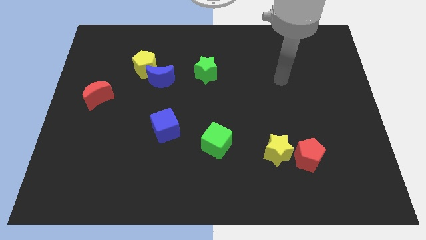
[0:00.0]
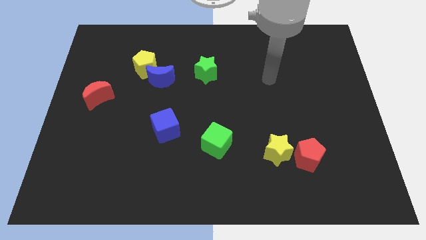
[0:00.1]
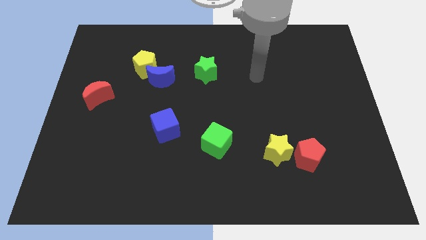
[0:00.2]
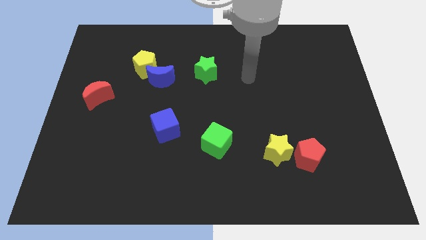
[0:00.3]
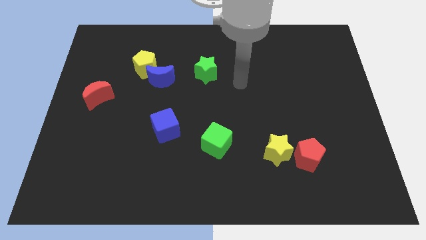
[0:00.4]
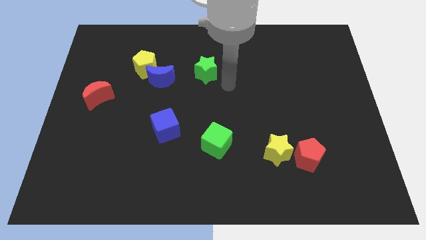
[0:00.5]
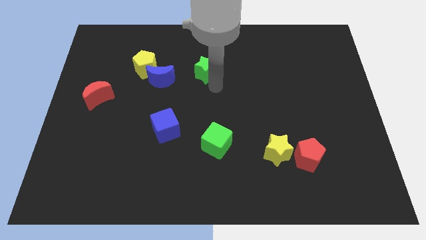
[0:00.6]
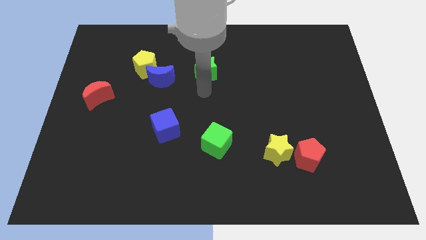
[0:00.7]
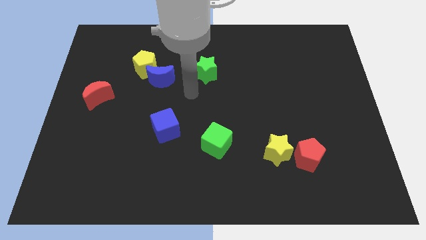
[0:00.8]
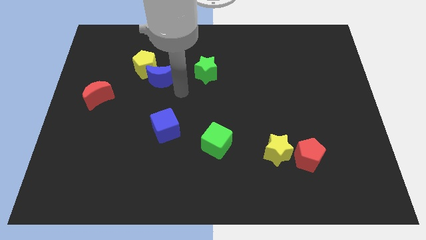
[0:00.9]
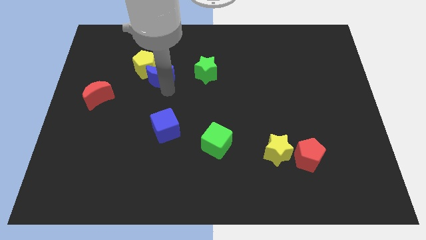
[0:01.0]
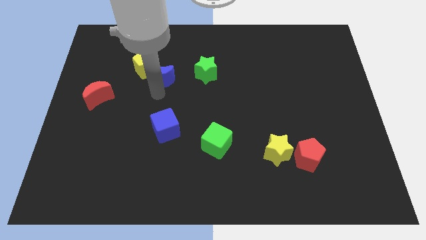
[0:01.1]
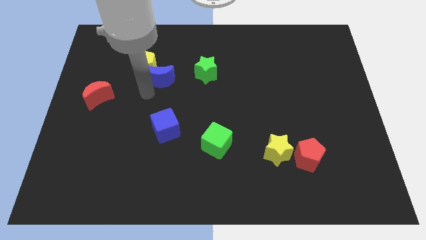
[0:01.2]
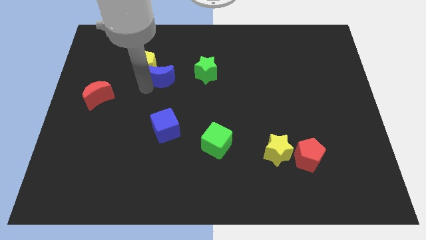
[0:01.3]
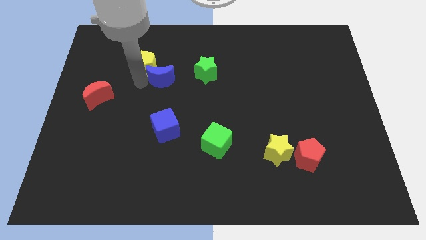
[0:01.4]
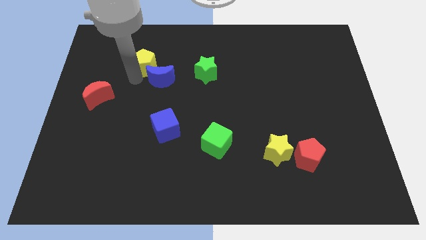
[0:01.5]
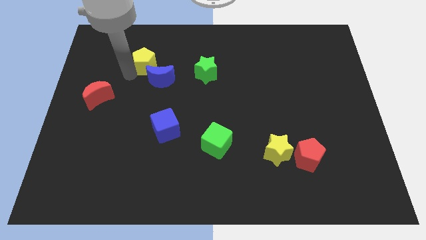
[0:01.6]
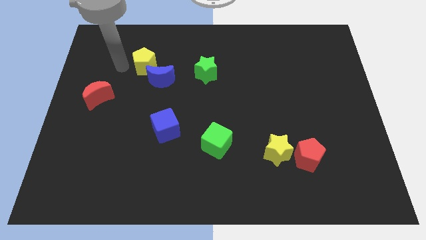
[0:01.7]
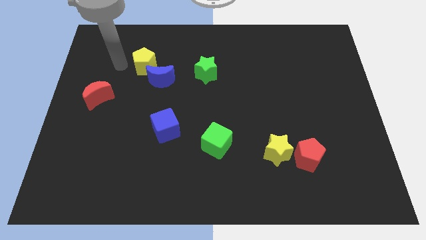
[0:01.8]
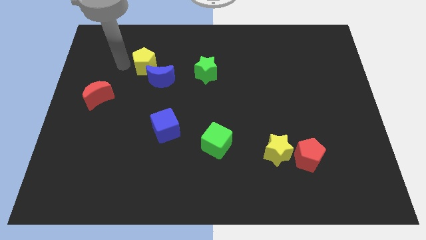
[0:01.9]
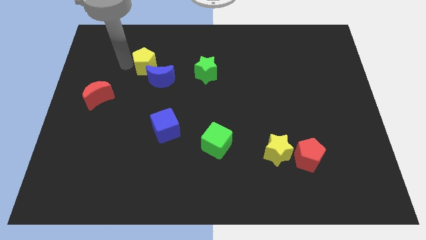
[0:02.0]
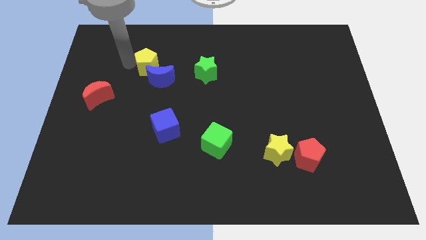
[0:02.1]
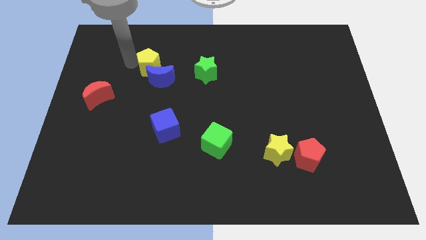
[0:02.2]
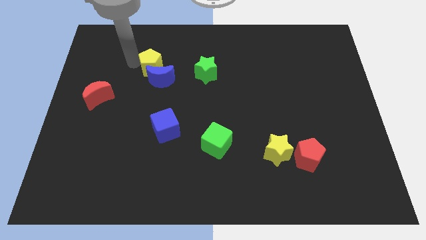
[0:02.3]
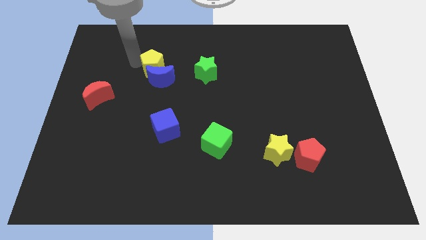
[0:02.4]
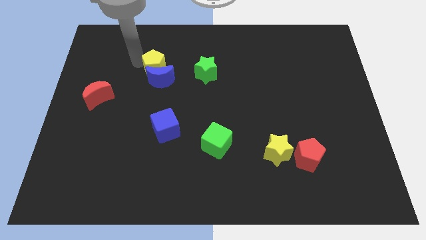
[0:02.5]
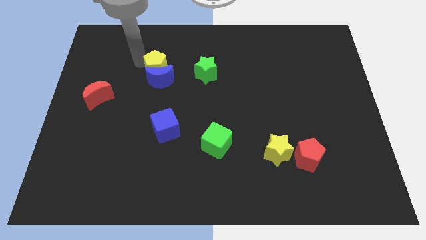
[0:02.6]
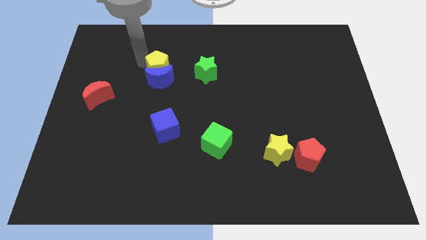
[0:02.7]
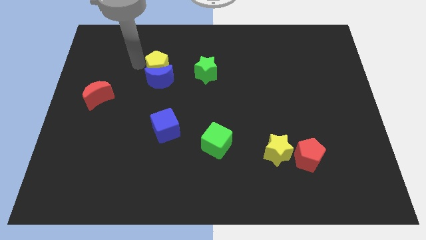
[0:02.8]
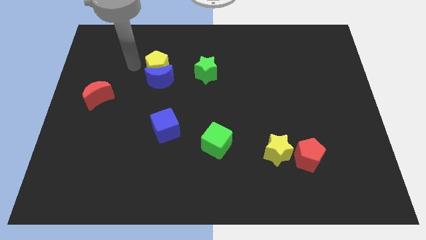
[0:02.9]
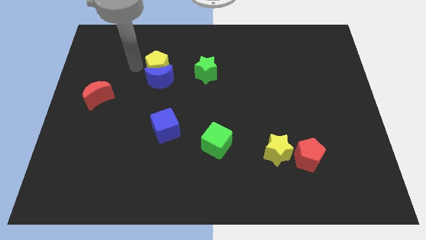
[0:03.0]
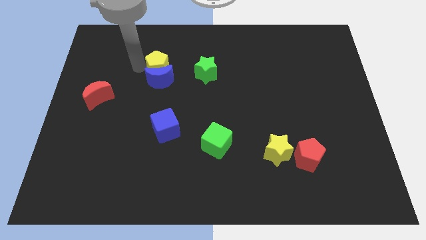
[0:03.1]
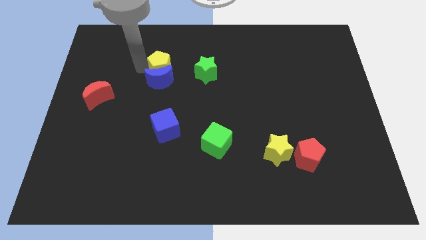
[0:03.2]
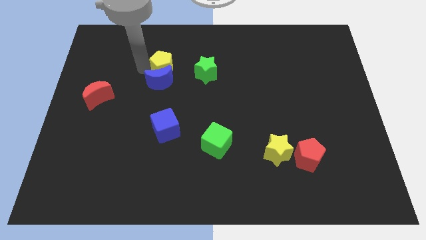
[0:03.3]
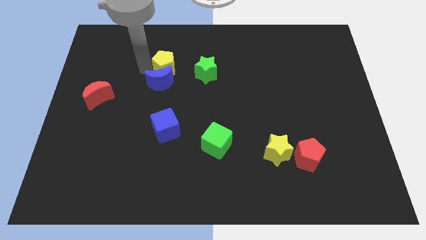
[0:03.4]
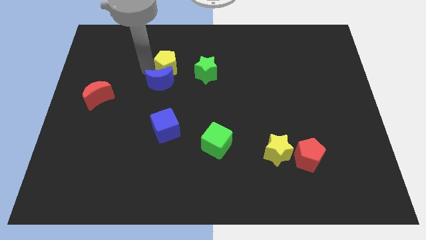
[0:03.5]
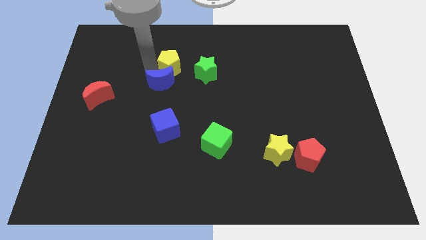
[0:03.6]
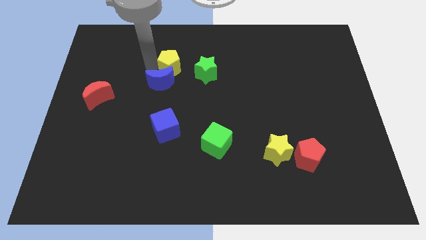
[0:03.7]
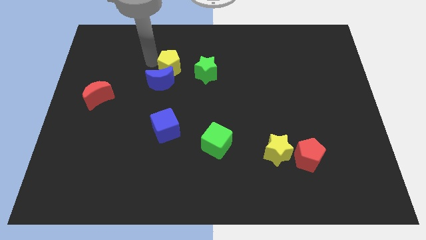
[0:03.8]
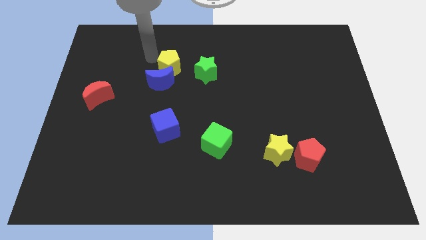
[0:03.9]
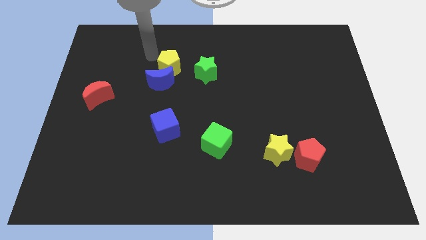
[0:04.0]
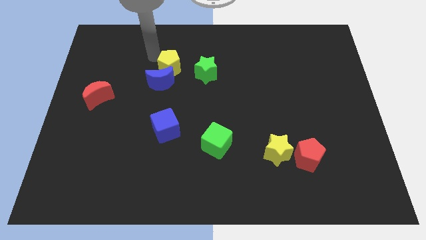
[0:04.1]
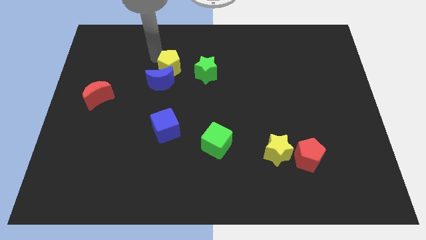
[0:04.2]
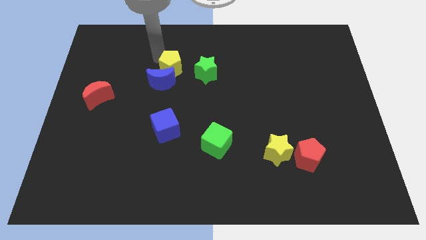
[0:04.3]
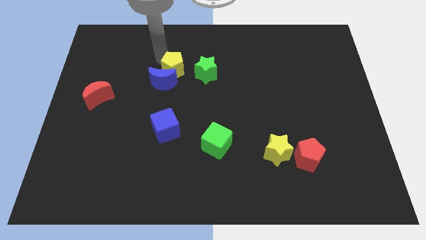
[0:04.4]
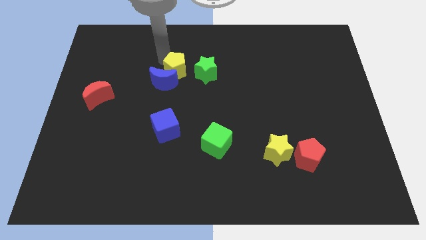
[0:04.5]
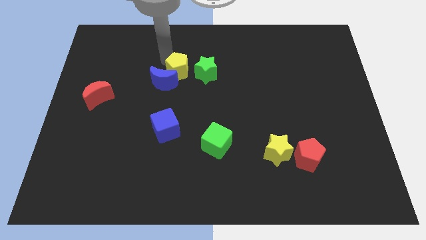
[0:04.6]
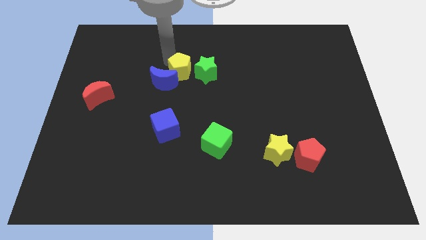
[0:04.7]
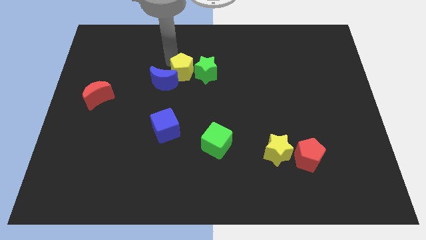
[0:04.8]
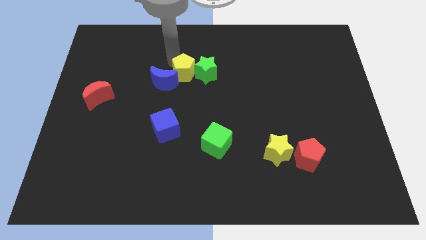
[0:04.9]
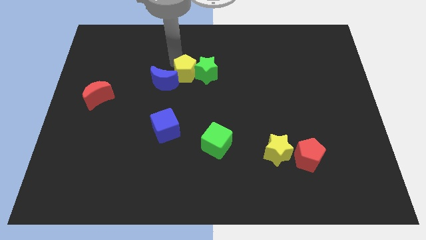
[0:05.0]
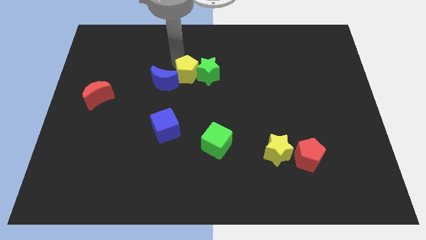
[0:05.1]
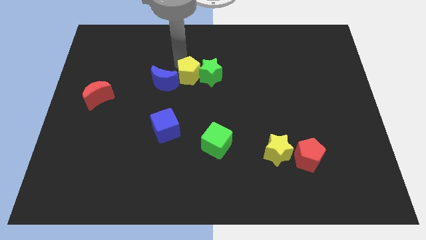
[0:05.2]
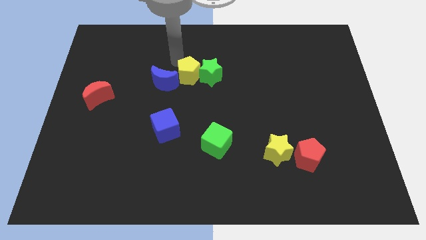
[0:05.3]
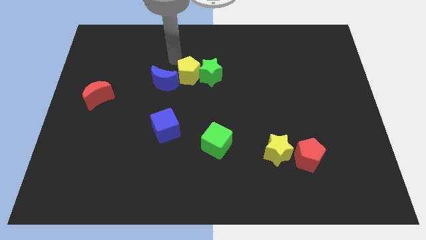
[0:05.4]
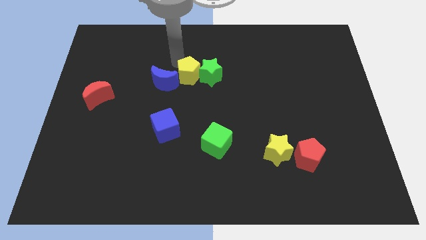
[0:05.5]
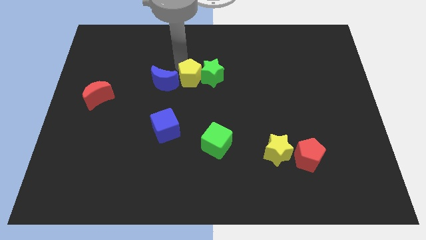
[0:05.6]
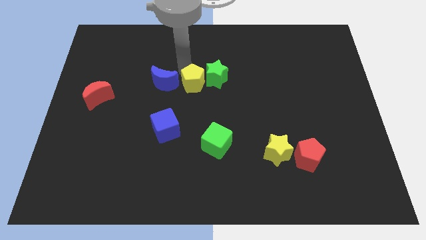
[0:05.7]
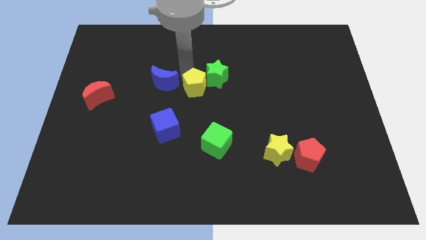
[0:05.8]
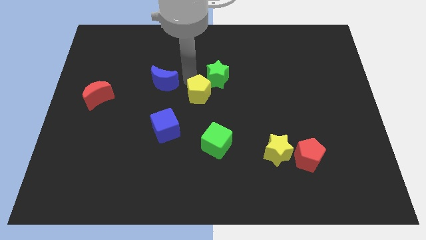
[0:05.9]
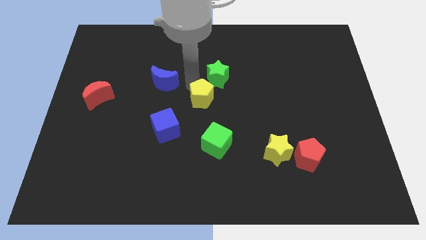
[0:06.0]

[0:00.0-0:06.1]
slide the yellow pentagon above the green cube

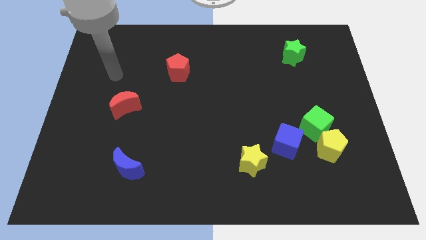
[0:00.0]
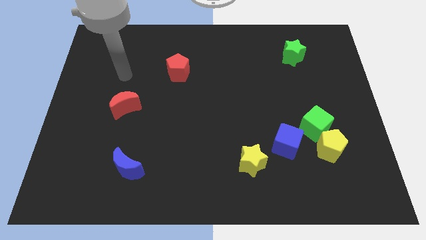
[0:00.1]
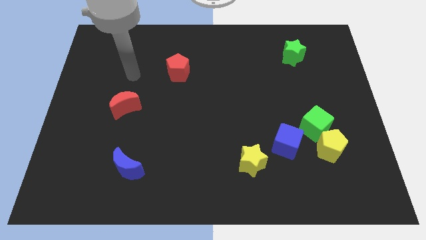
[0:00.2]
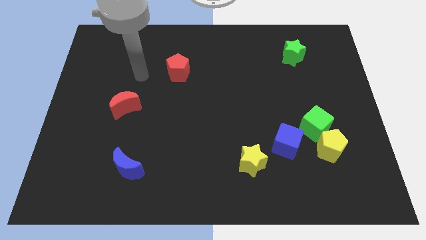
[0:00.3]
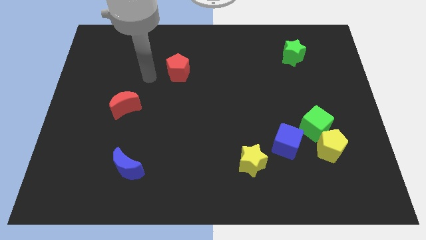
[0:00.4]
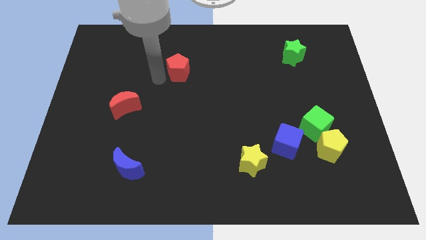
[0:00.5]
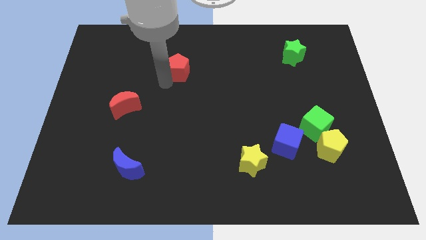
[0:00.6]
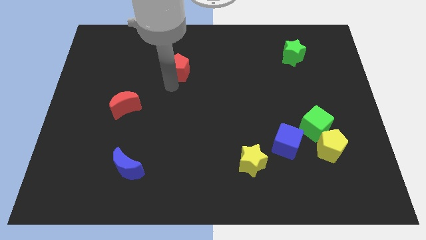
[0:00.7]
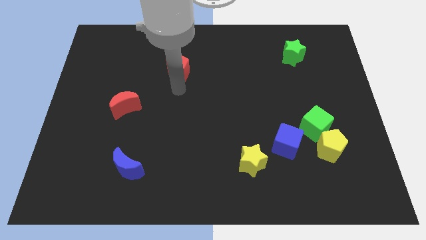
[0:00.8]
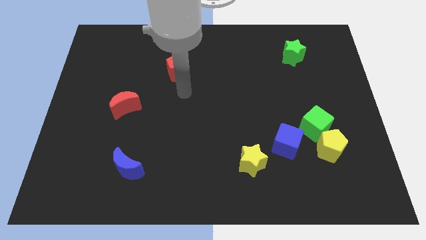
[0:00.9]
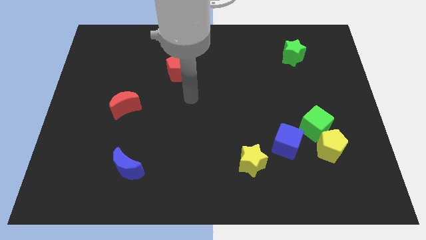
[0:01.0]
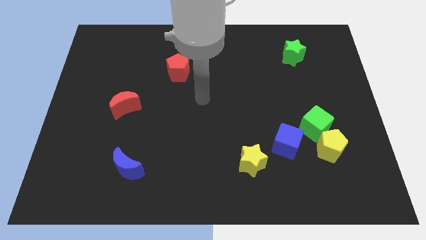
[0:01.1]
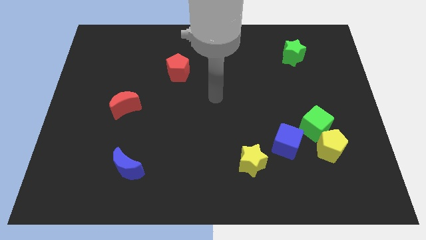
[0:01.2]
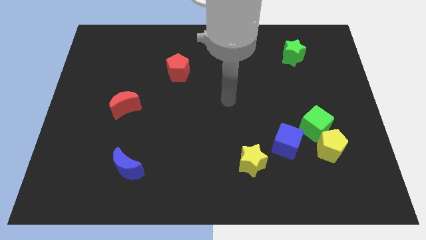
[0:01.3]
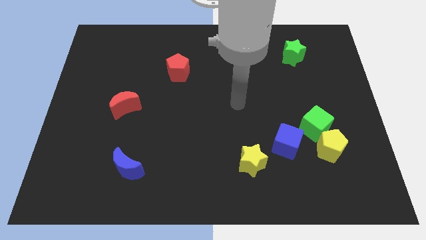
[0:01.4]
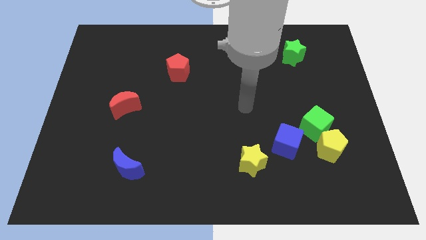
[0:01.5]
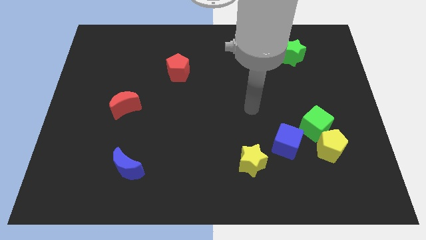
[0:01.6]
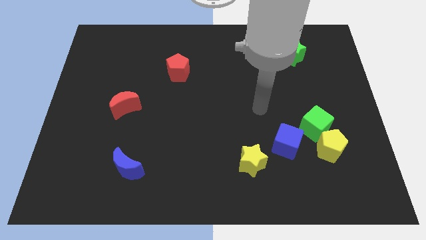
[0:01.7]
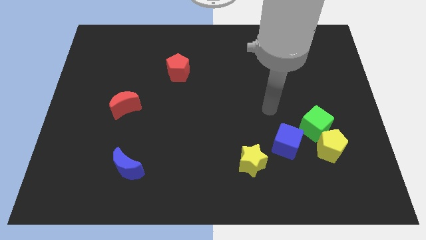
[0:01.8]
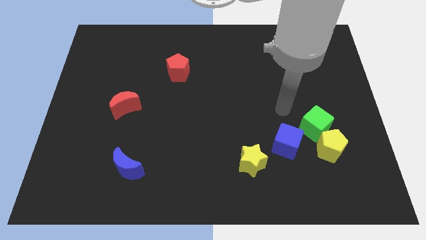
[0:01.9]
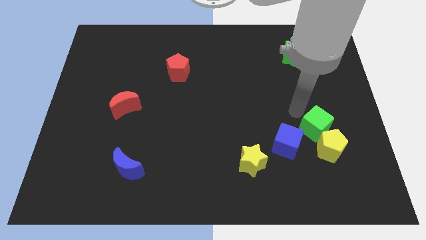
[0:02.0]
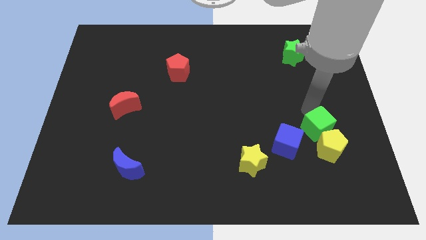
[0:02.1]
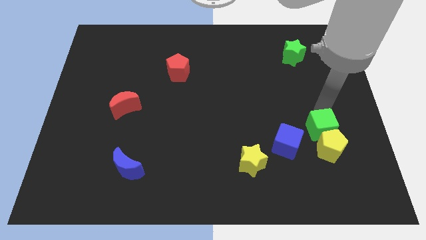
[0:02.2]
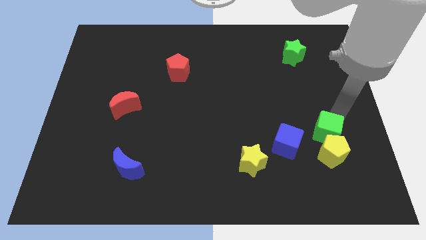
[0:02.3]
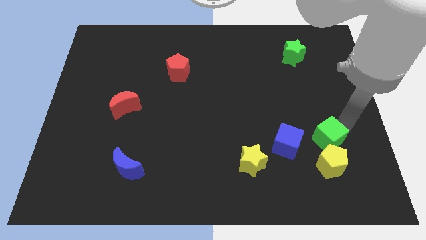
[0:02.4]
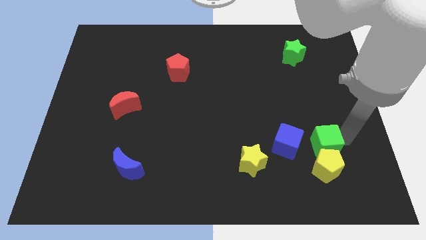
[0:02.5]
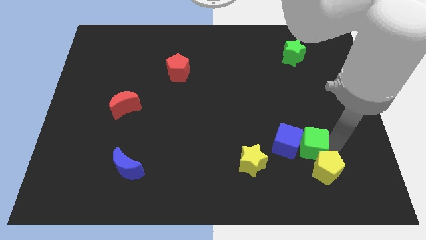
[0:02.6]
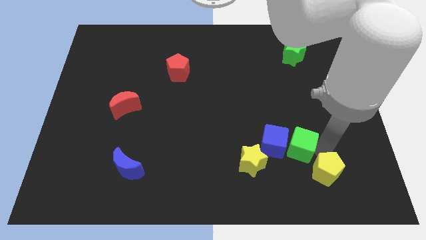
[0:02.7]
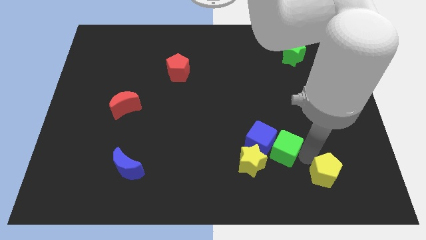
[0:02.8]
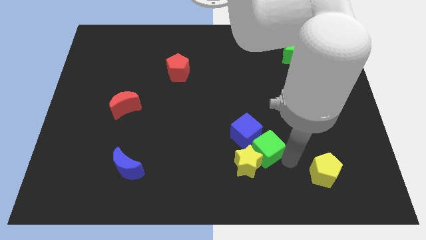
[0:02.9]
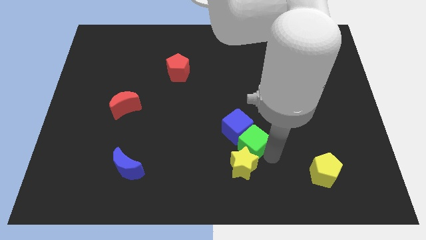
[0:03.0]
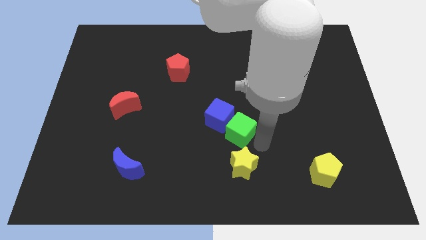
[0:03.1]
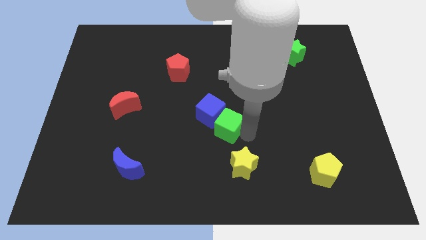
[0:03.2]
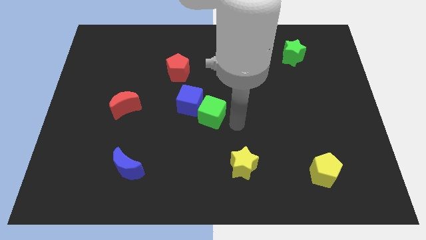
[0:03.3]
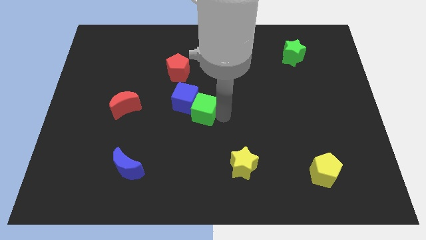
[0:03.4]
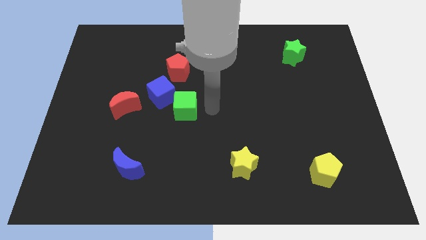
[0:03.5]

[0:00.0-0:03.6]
move the blue cube diagonally up and to the right of the red moon
